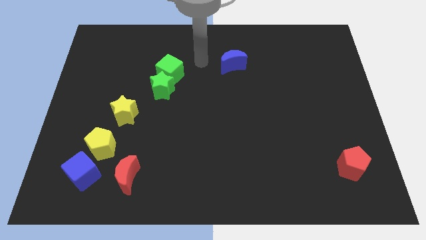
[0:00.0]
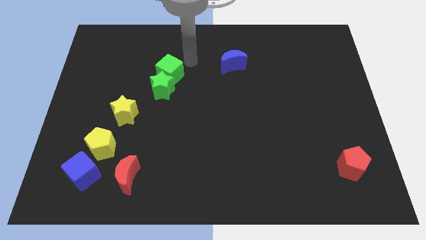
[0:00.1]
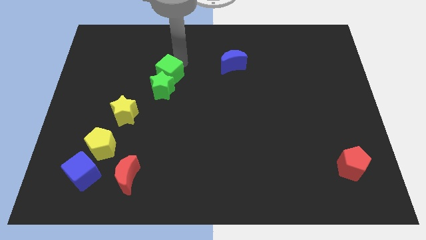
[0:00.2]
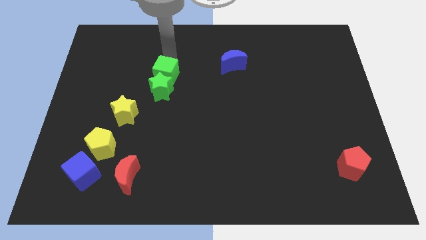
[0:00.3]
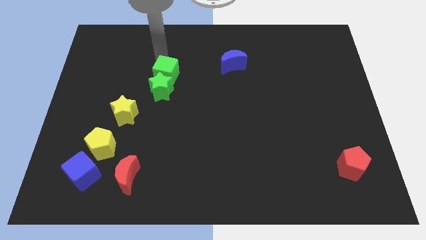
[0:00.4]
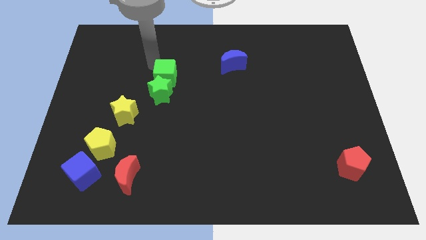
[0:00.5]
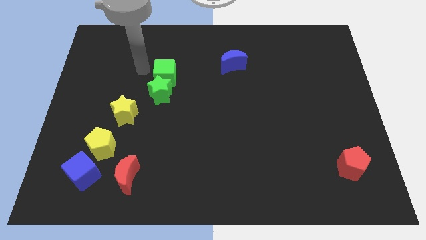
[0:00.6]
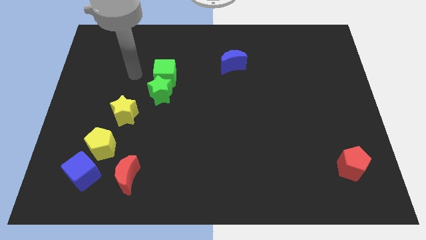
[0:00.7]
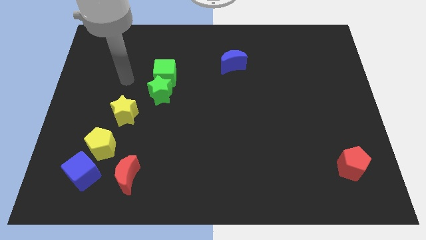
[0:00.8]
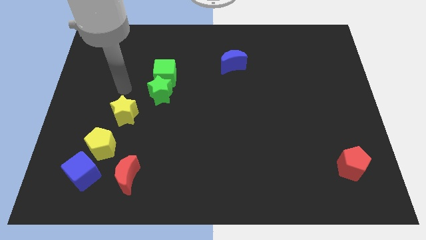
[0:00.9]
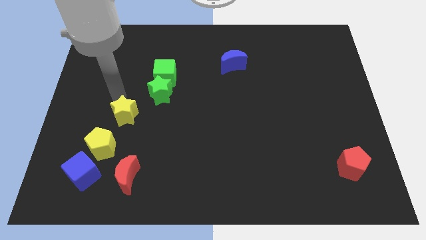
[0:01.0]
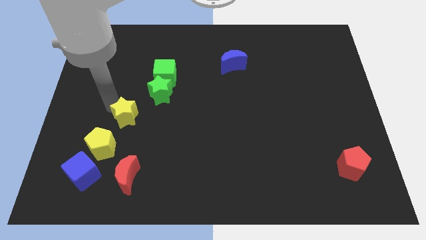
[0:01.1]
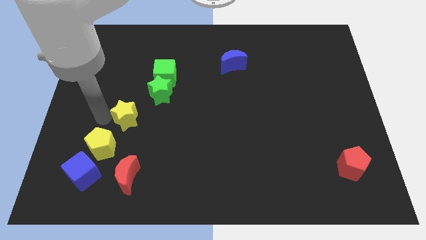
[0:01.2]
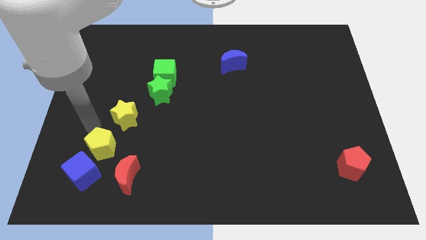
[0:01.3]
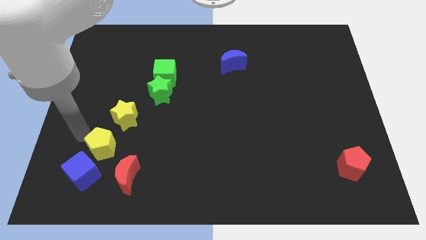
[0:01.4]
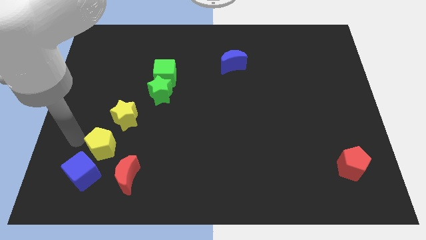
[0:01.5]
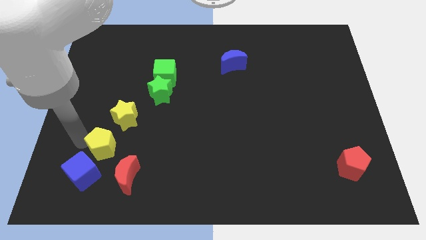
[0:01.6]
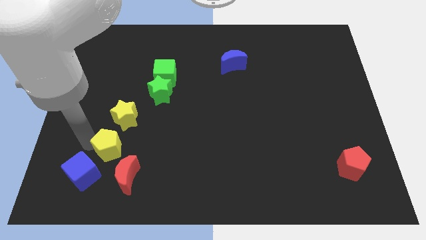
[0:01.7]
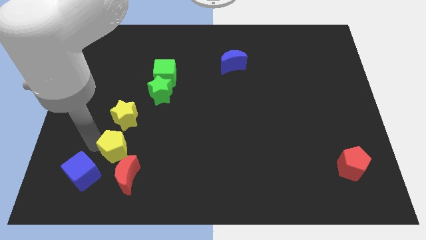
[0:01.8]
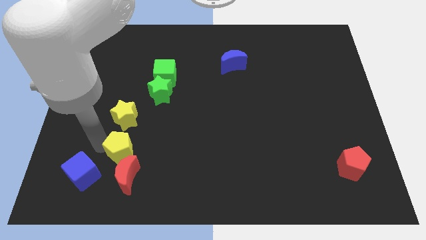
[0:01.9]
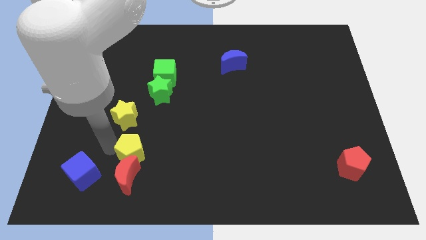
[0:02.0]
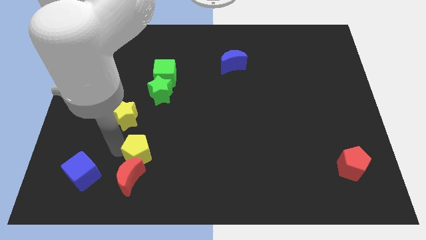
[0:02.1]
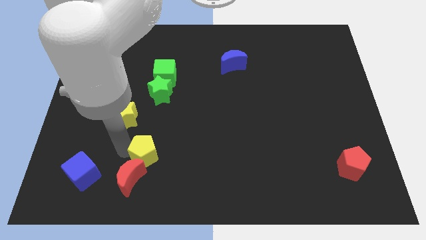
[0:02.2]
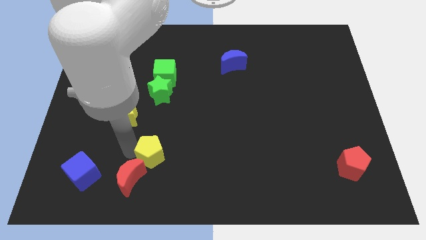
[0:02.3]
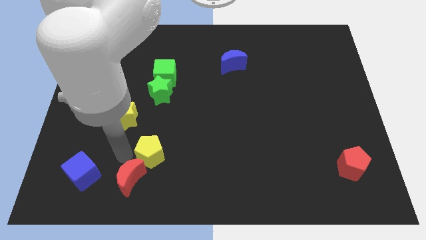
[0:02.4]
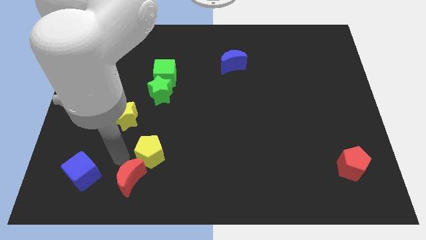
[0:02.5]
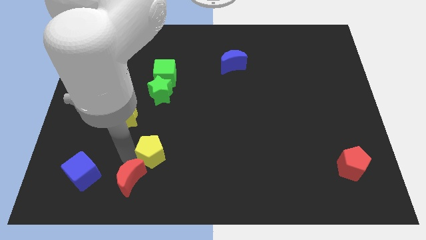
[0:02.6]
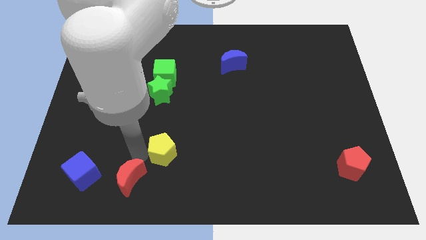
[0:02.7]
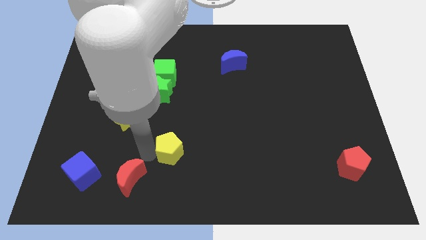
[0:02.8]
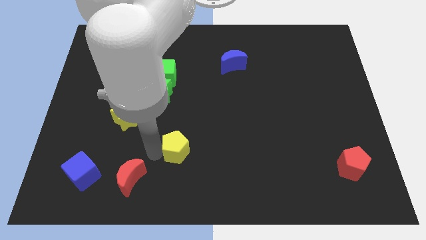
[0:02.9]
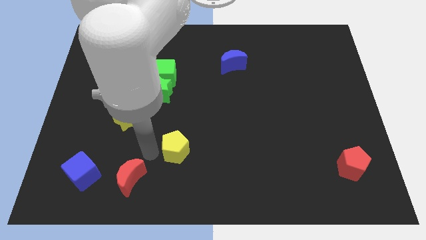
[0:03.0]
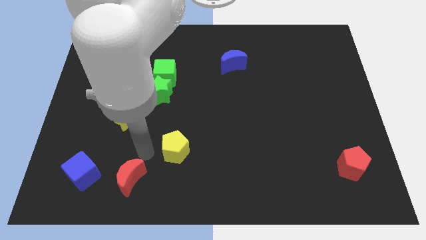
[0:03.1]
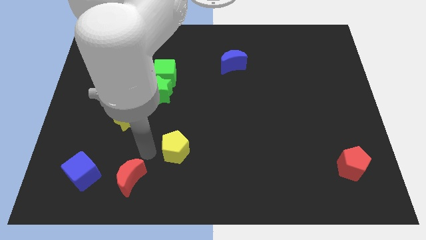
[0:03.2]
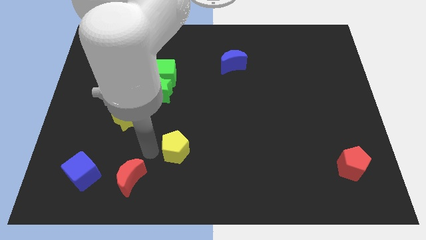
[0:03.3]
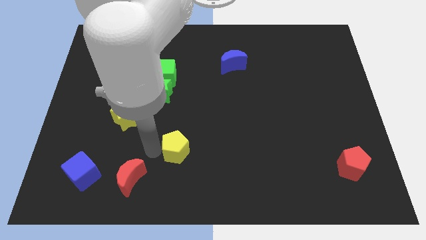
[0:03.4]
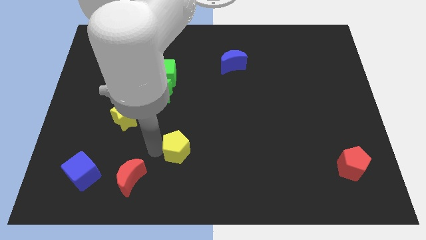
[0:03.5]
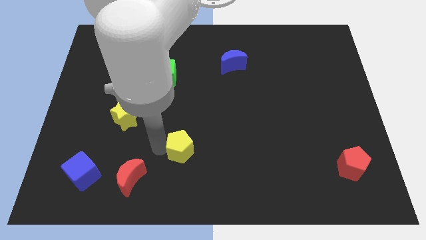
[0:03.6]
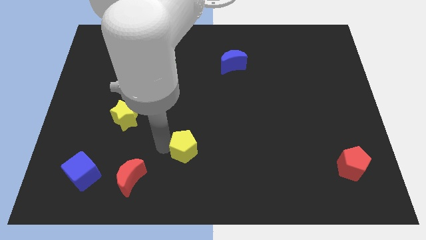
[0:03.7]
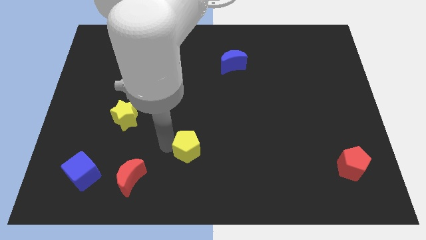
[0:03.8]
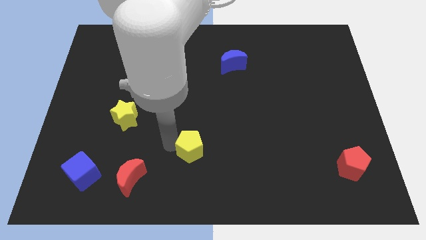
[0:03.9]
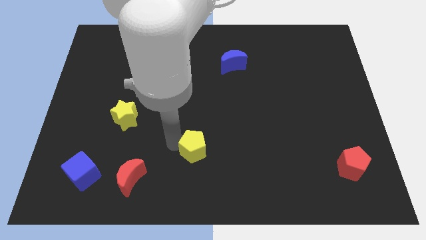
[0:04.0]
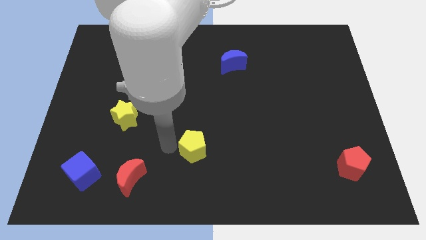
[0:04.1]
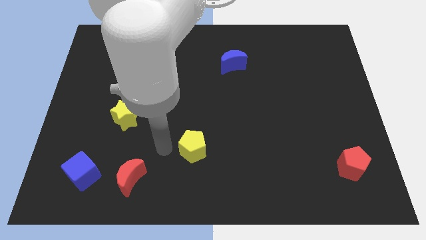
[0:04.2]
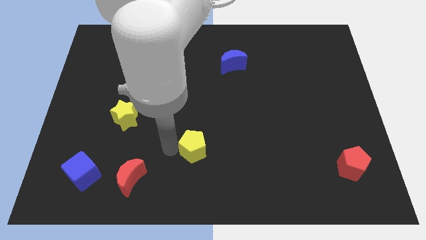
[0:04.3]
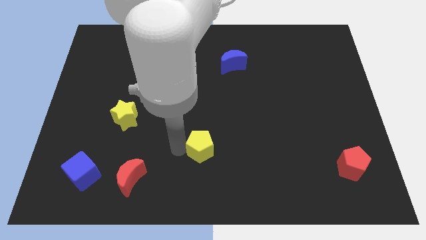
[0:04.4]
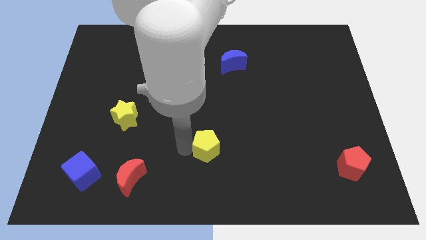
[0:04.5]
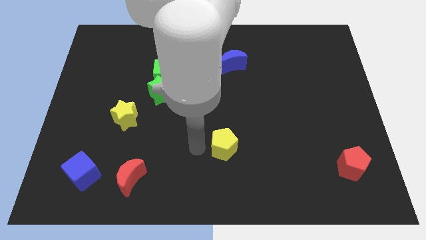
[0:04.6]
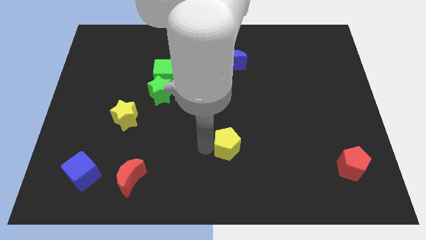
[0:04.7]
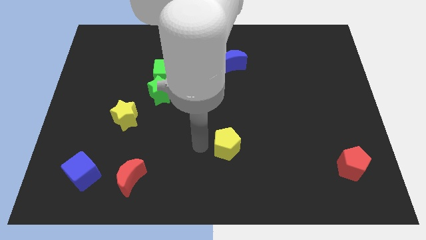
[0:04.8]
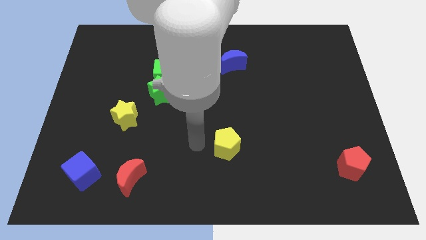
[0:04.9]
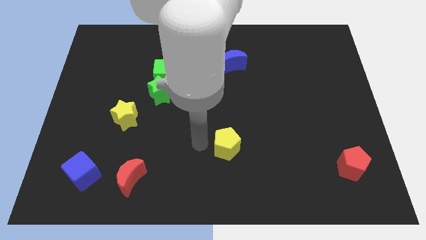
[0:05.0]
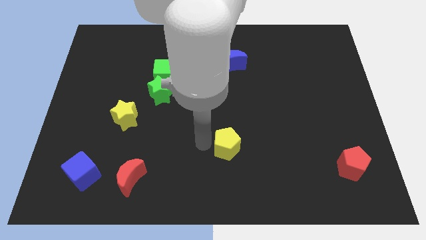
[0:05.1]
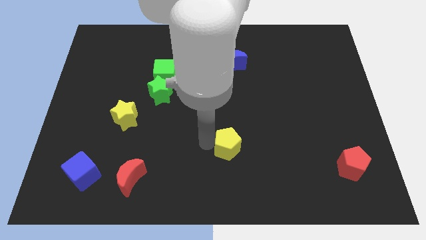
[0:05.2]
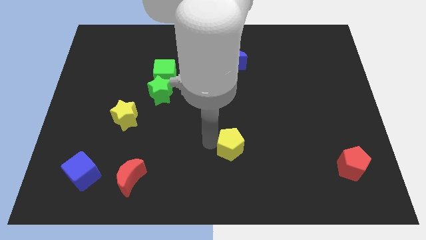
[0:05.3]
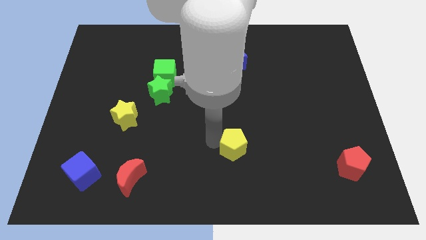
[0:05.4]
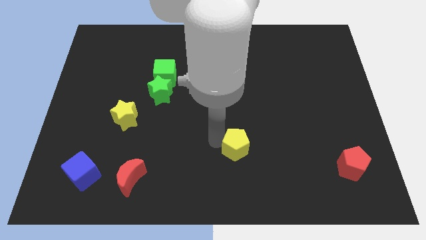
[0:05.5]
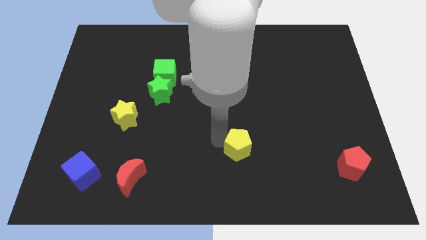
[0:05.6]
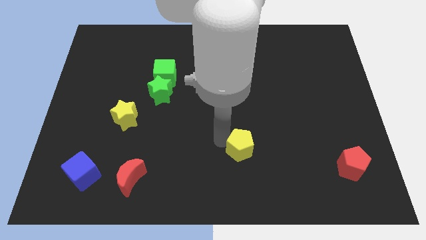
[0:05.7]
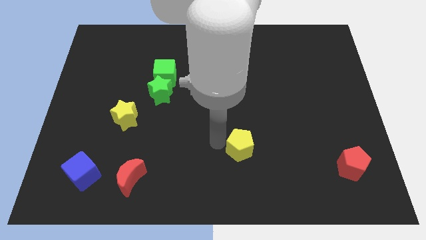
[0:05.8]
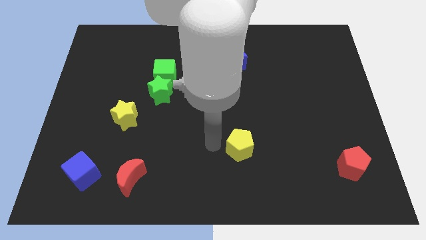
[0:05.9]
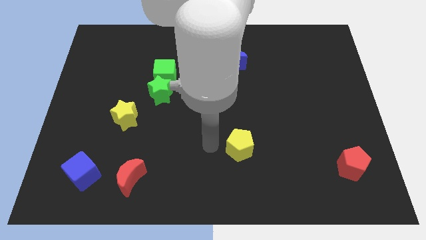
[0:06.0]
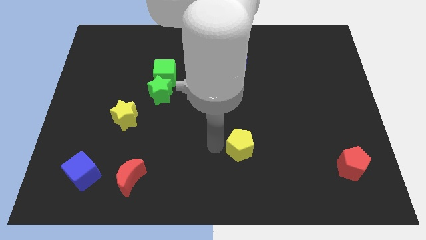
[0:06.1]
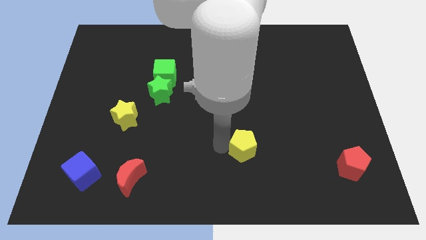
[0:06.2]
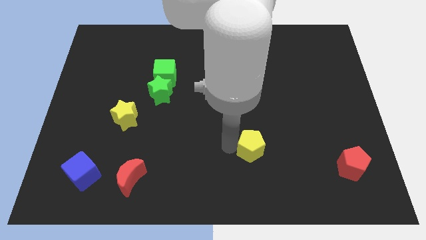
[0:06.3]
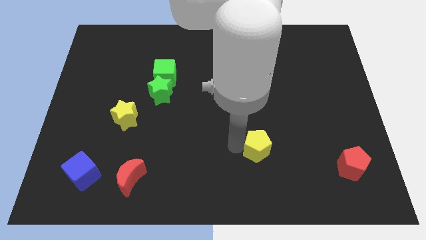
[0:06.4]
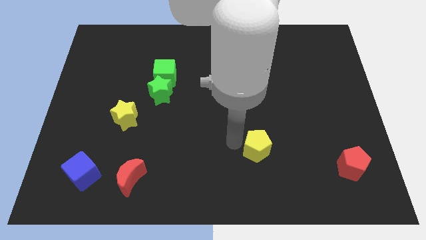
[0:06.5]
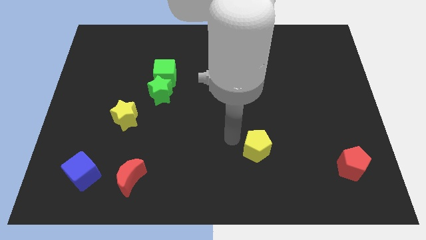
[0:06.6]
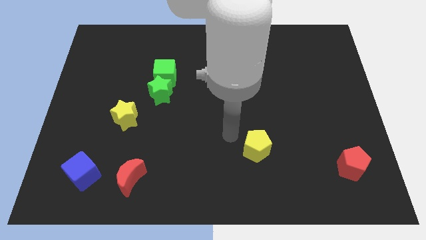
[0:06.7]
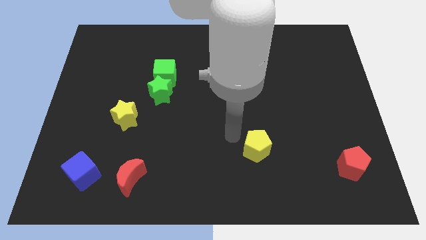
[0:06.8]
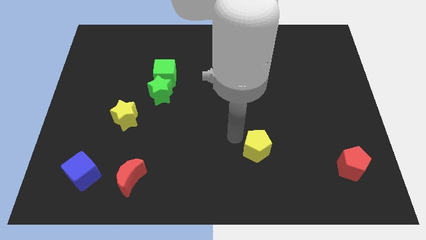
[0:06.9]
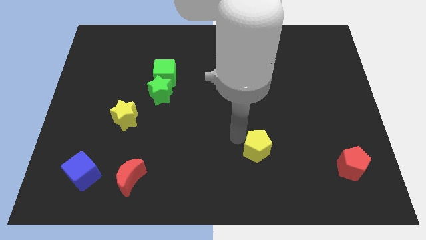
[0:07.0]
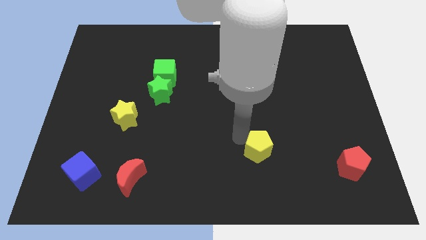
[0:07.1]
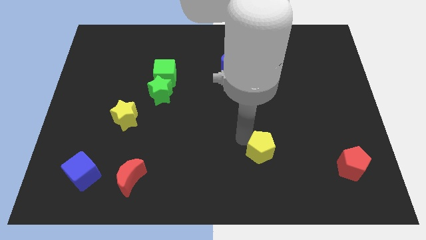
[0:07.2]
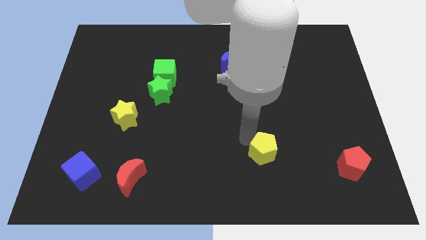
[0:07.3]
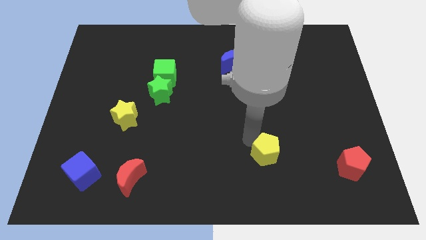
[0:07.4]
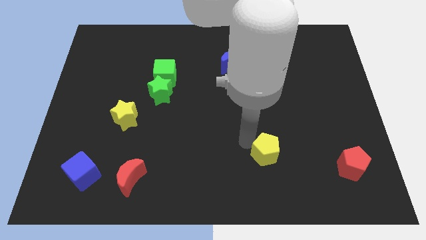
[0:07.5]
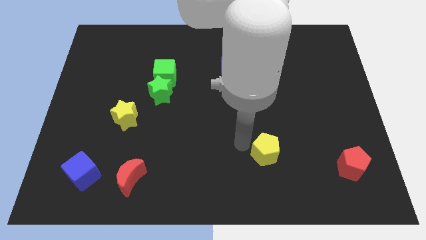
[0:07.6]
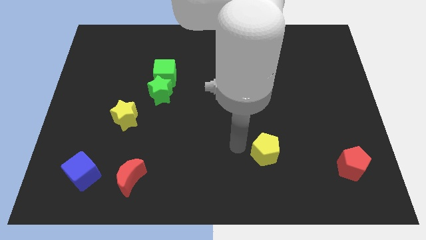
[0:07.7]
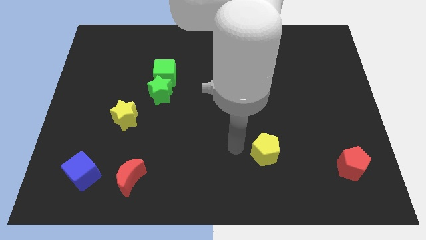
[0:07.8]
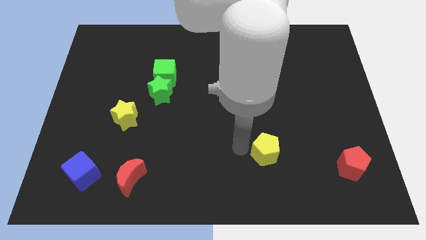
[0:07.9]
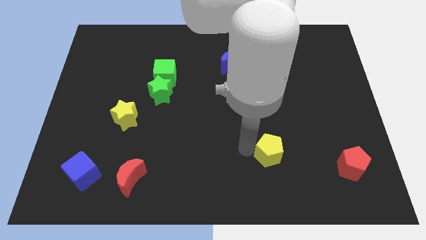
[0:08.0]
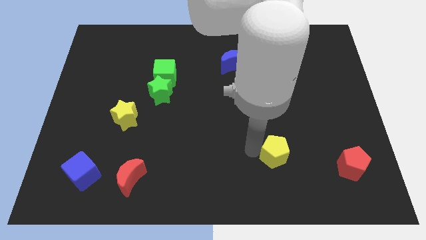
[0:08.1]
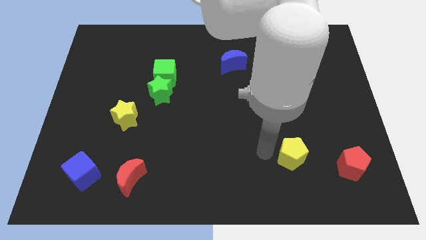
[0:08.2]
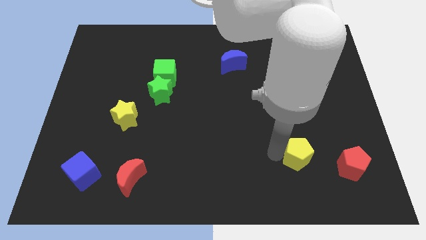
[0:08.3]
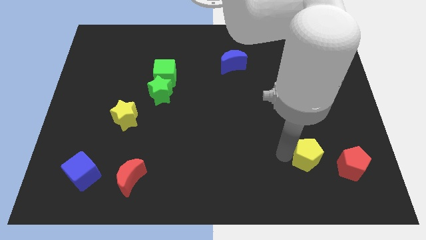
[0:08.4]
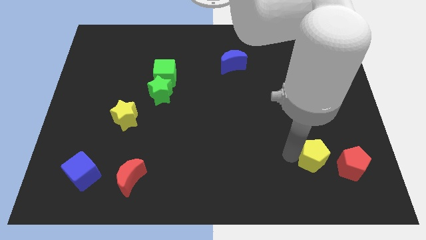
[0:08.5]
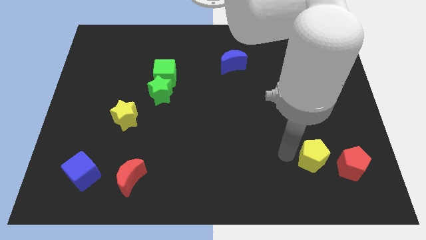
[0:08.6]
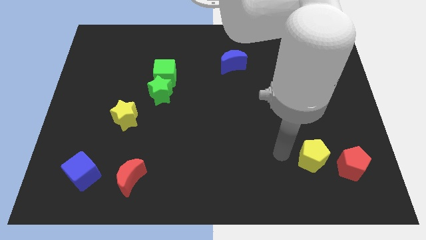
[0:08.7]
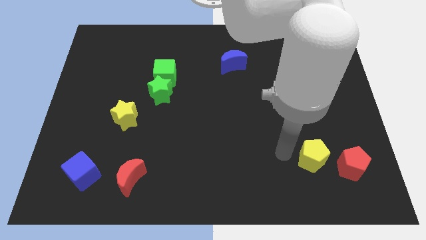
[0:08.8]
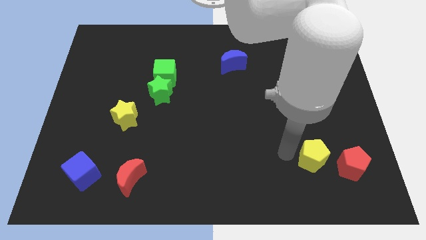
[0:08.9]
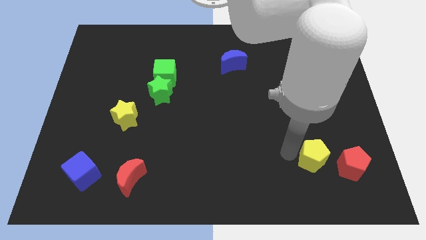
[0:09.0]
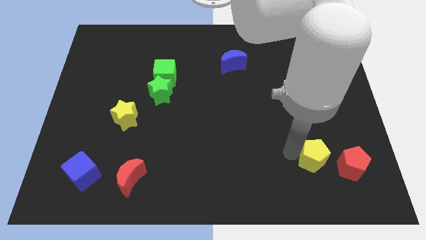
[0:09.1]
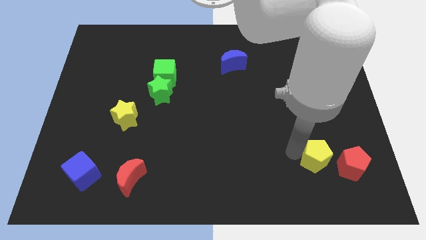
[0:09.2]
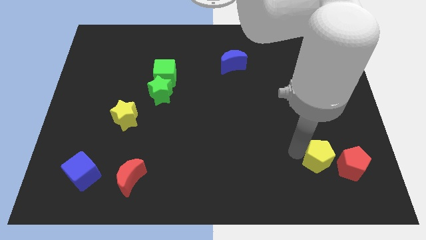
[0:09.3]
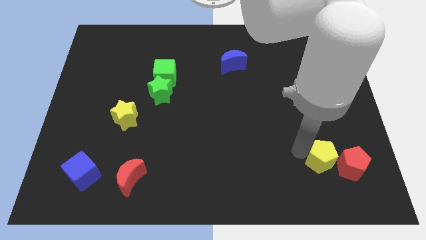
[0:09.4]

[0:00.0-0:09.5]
push the yellow pentagon close to the red pentagon
